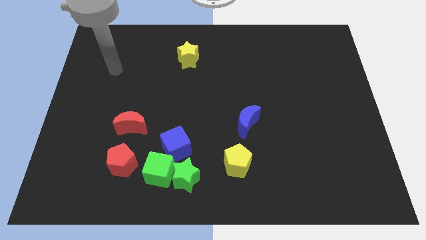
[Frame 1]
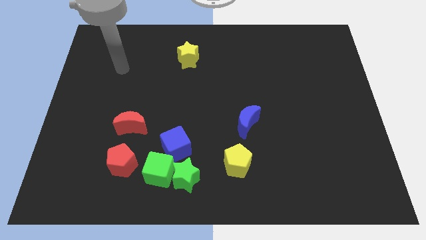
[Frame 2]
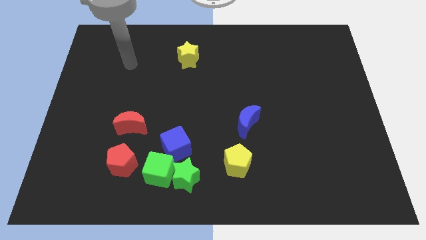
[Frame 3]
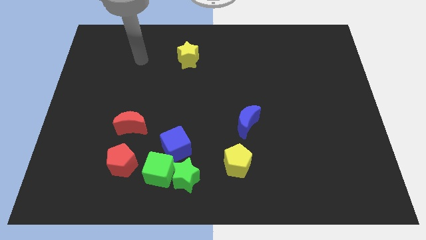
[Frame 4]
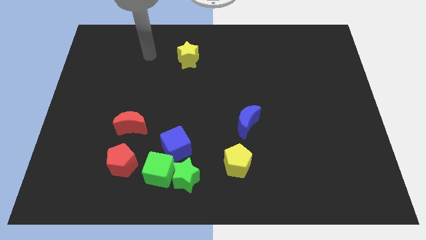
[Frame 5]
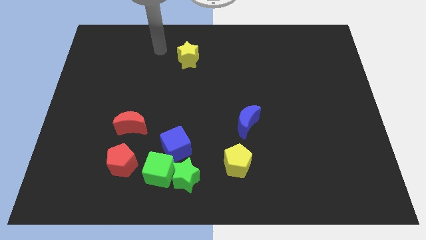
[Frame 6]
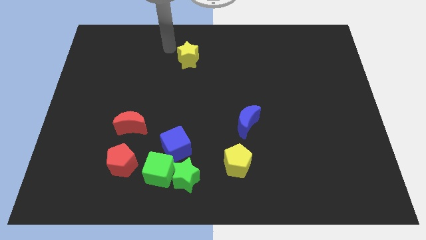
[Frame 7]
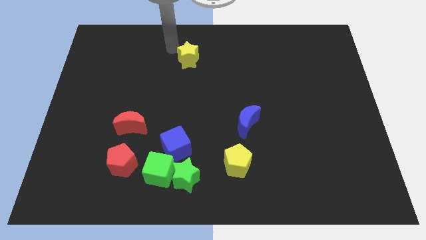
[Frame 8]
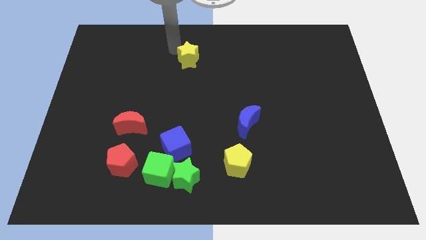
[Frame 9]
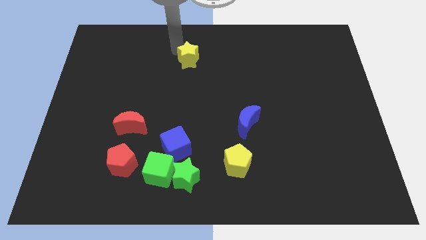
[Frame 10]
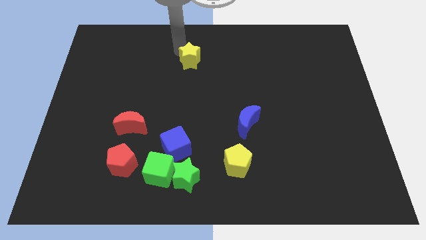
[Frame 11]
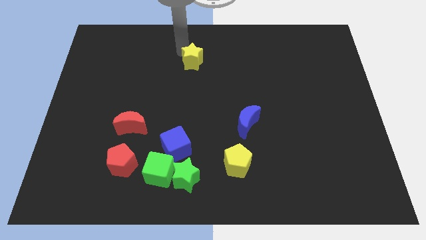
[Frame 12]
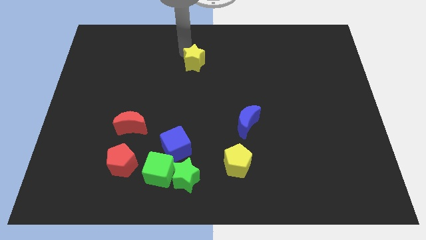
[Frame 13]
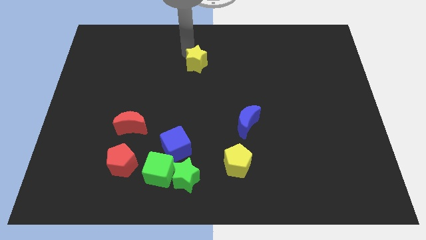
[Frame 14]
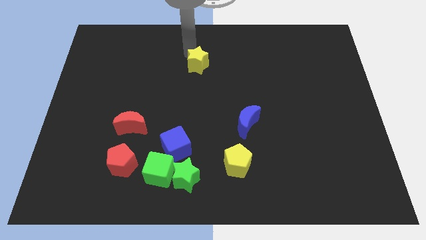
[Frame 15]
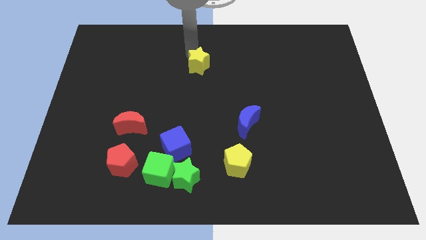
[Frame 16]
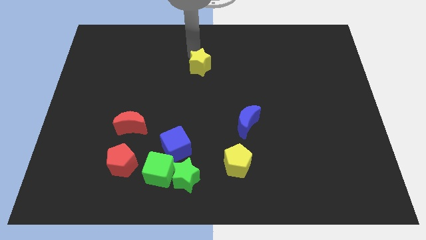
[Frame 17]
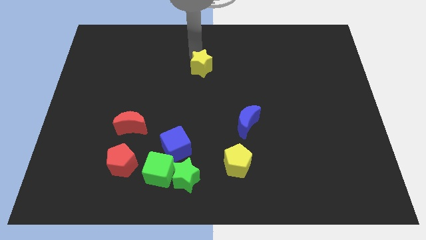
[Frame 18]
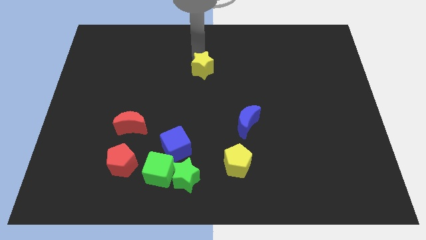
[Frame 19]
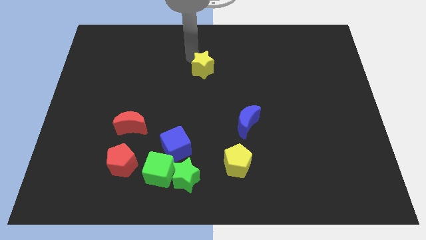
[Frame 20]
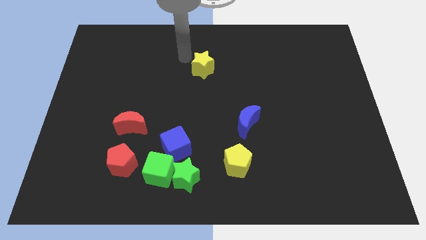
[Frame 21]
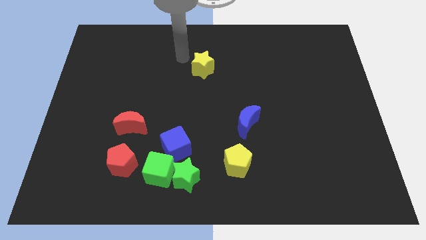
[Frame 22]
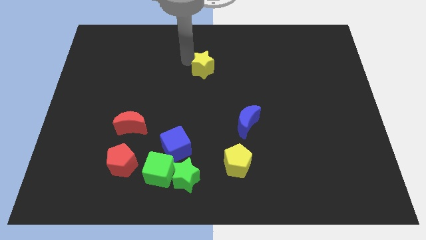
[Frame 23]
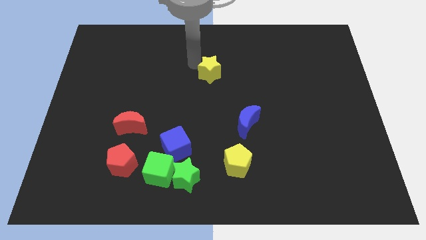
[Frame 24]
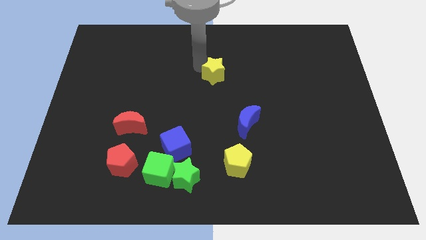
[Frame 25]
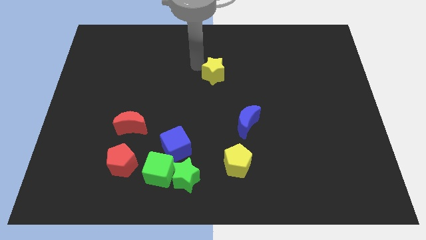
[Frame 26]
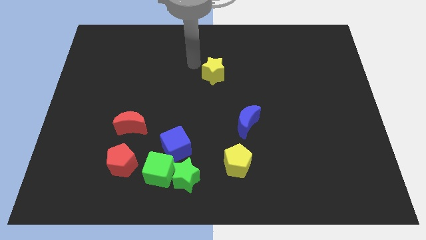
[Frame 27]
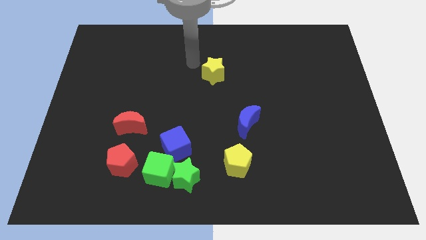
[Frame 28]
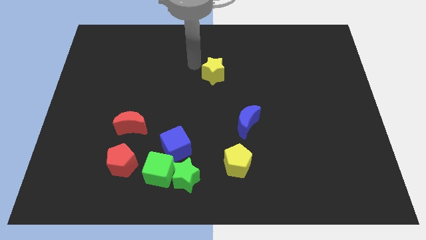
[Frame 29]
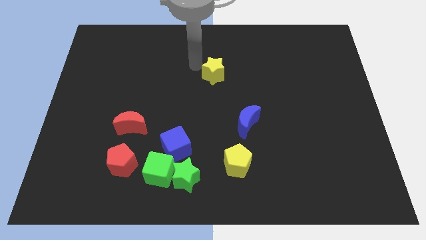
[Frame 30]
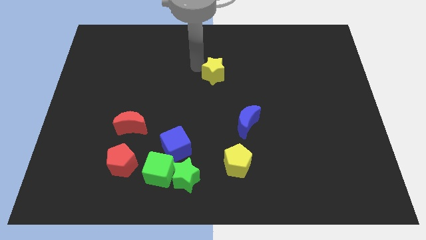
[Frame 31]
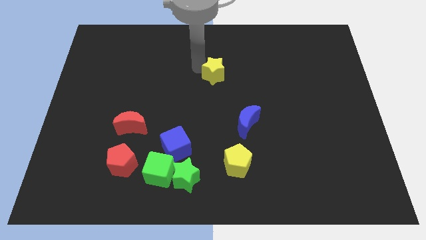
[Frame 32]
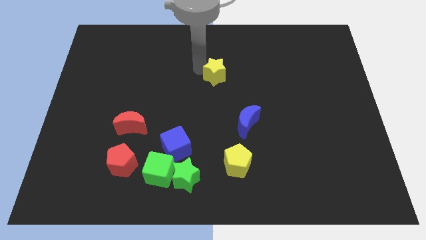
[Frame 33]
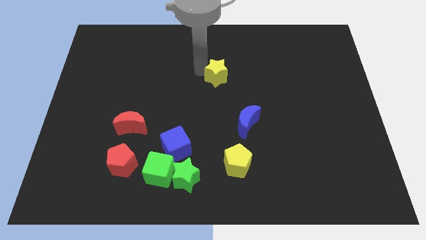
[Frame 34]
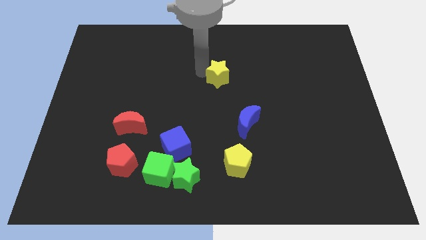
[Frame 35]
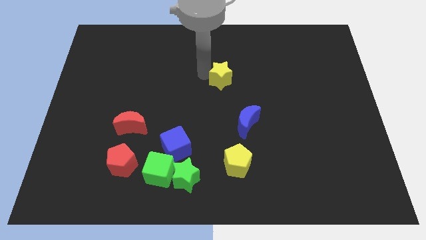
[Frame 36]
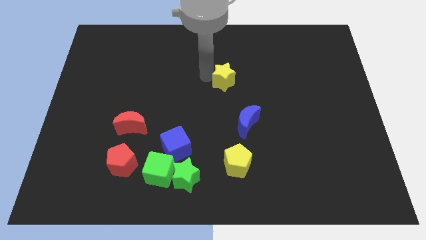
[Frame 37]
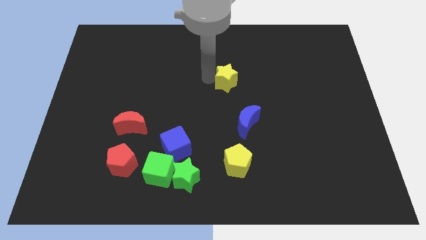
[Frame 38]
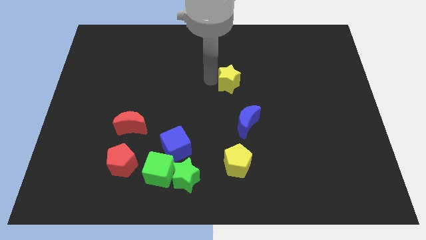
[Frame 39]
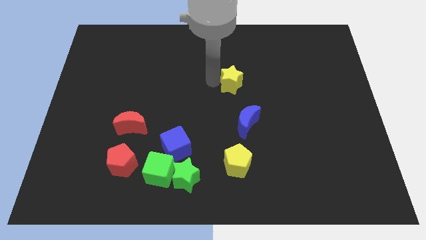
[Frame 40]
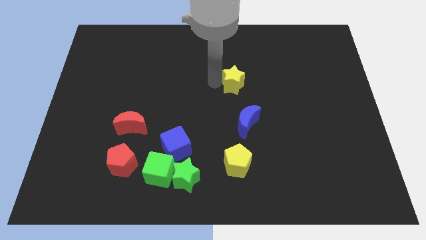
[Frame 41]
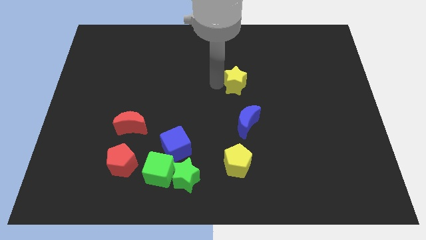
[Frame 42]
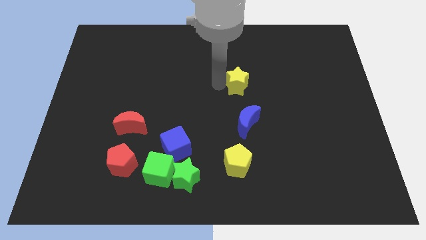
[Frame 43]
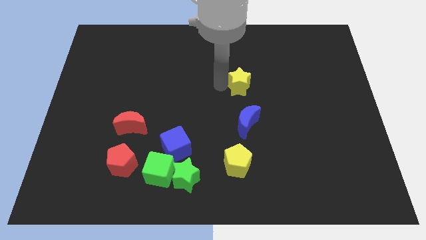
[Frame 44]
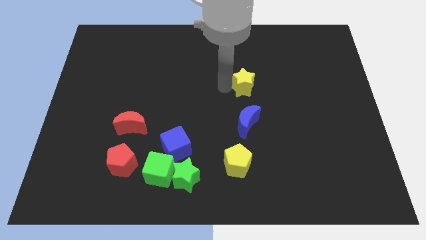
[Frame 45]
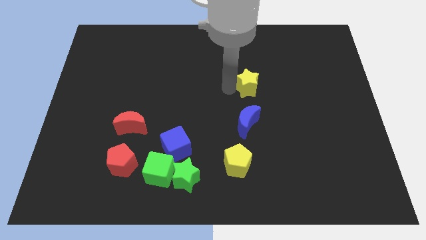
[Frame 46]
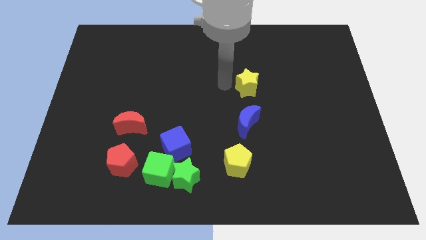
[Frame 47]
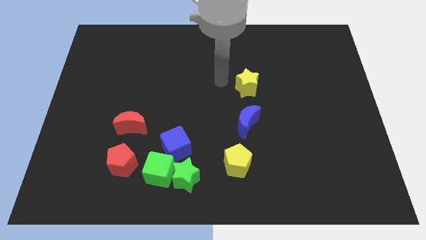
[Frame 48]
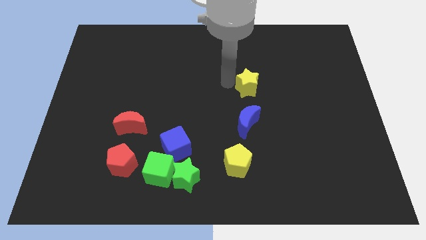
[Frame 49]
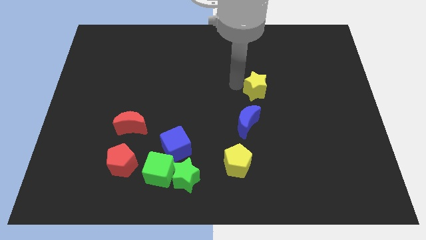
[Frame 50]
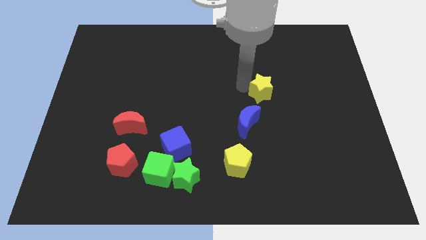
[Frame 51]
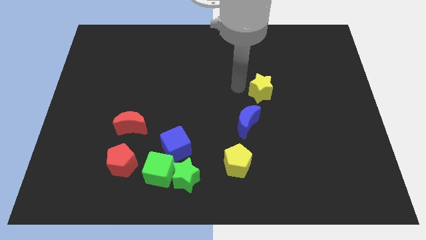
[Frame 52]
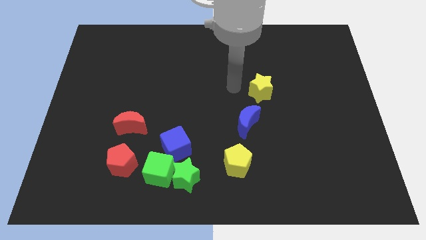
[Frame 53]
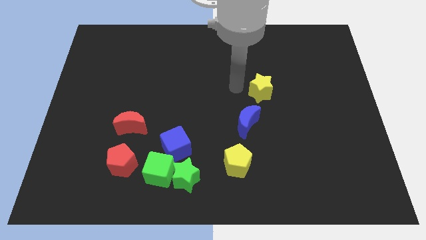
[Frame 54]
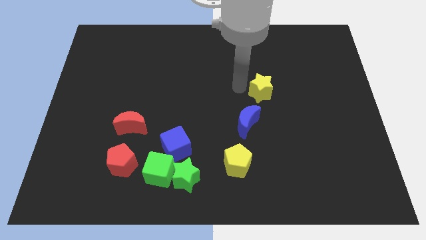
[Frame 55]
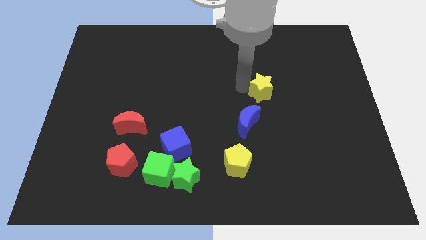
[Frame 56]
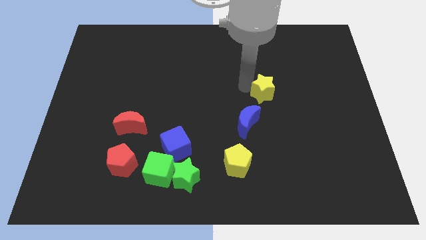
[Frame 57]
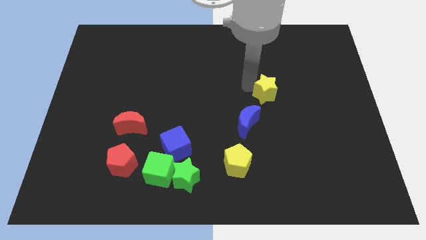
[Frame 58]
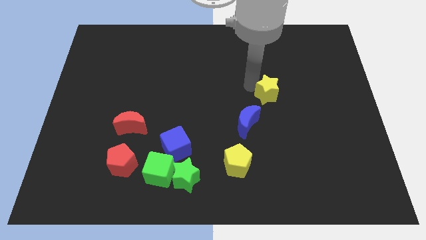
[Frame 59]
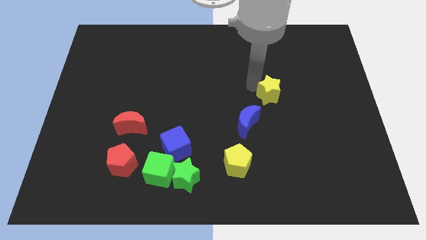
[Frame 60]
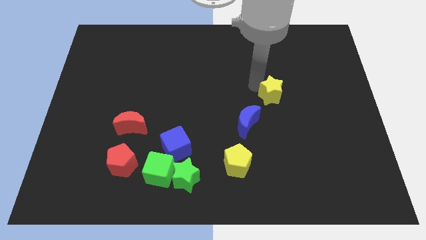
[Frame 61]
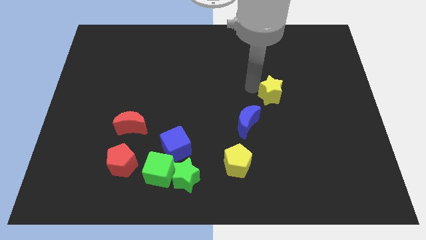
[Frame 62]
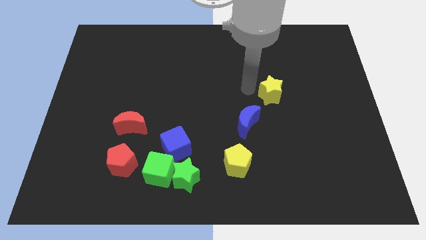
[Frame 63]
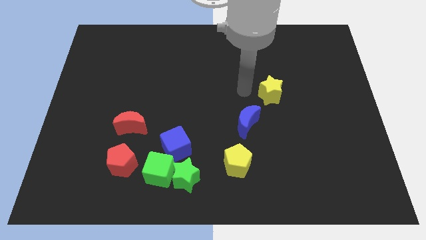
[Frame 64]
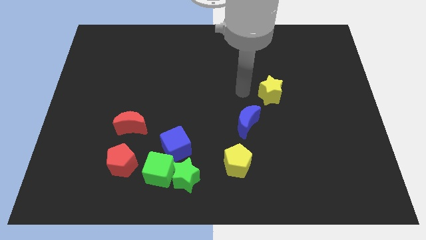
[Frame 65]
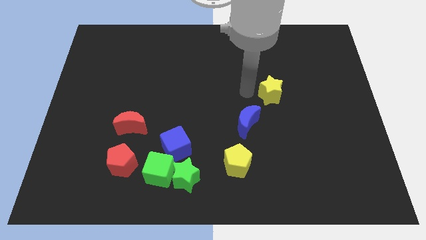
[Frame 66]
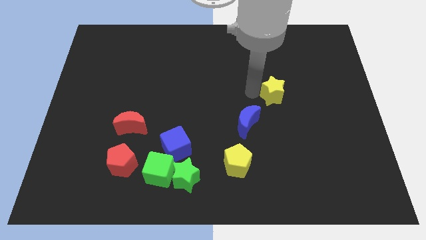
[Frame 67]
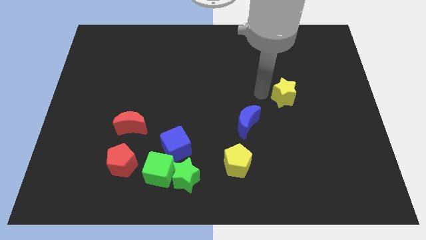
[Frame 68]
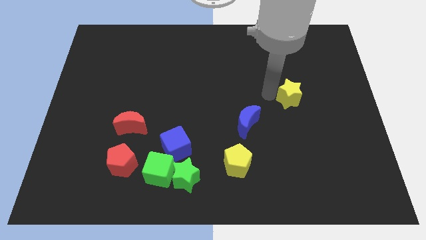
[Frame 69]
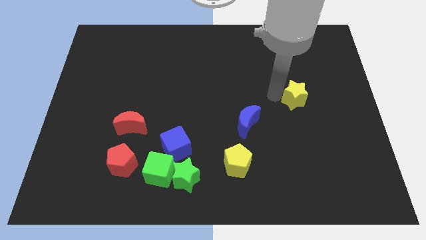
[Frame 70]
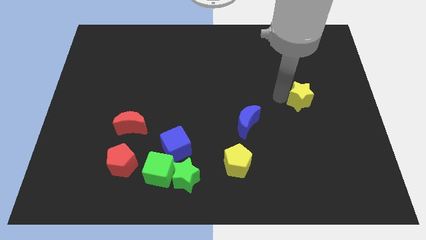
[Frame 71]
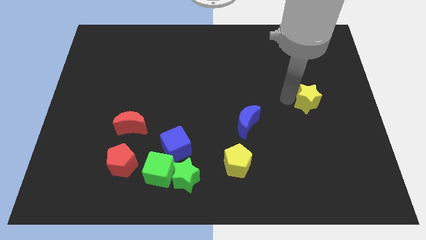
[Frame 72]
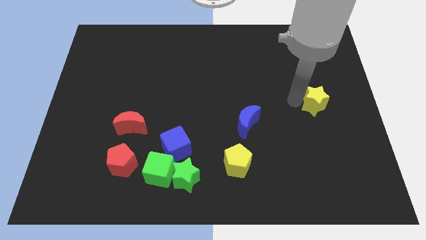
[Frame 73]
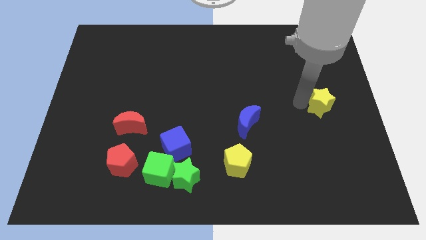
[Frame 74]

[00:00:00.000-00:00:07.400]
move the yellow star to the center right

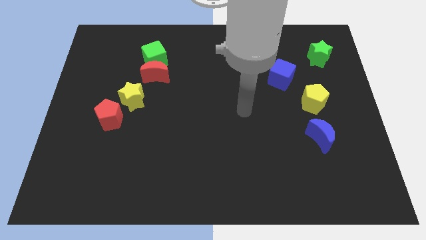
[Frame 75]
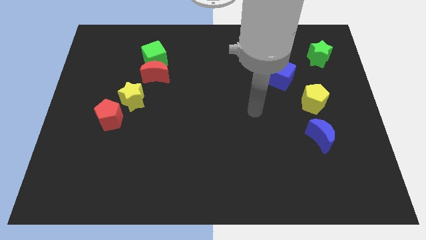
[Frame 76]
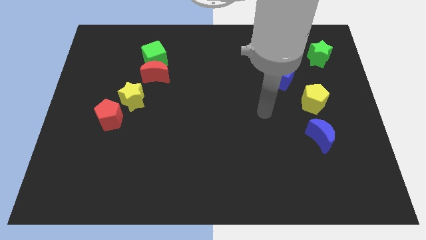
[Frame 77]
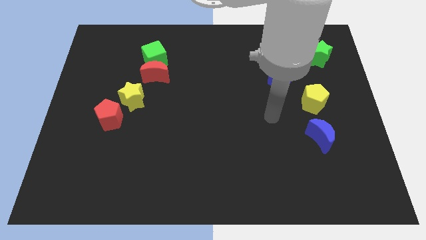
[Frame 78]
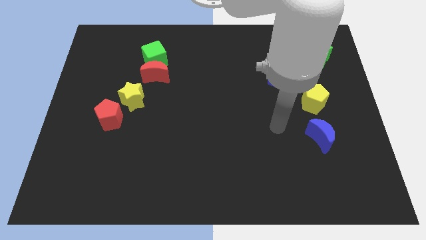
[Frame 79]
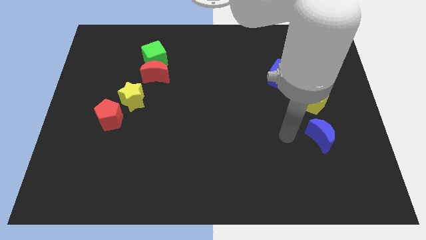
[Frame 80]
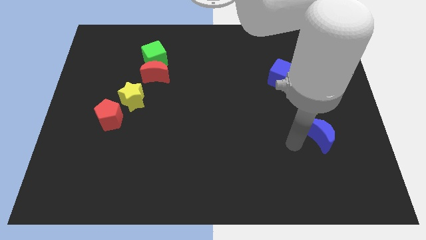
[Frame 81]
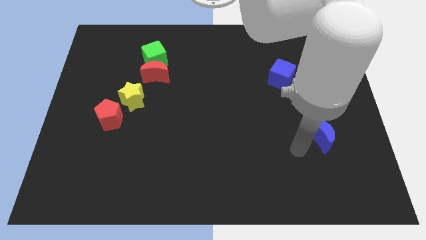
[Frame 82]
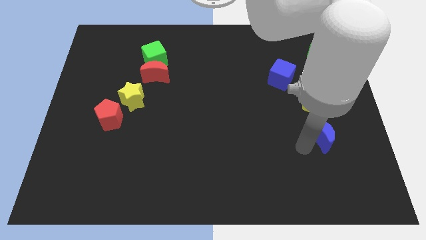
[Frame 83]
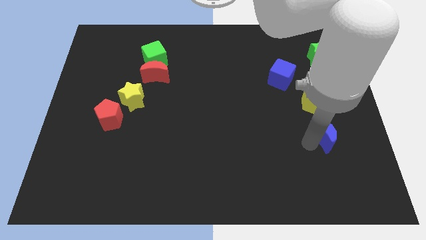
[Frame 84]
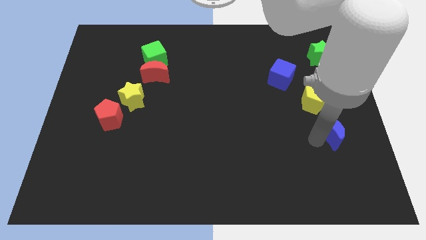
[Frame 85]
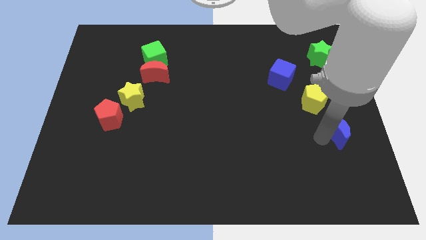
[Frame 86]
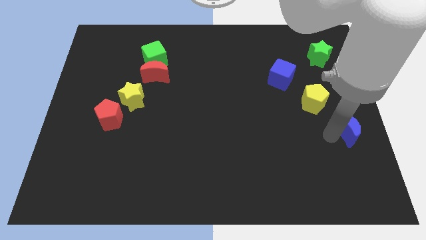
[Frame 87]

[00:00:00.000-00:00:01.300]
move the blue moon to the right side of the board
